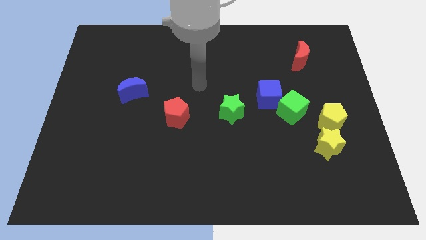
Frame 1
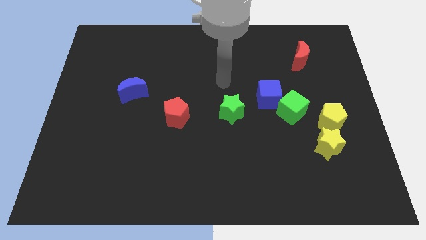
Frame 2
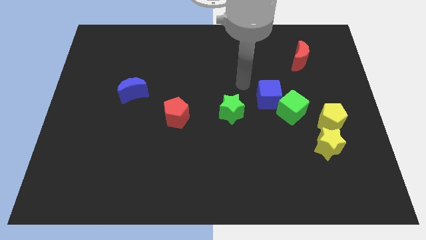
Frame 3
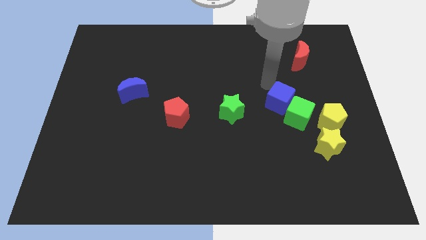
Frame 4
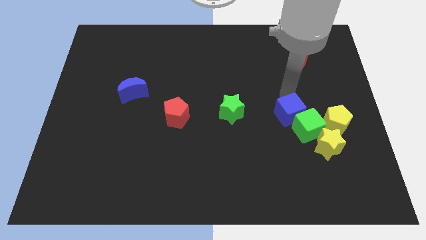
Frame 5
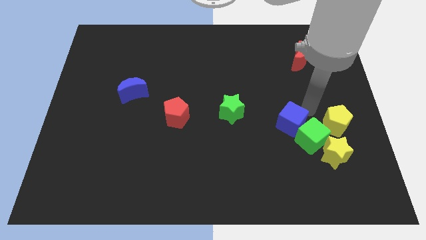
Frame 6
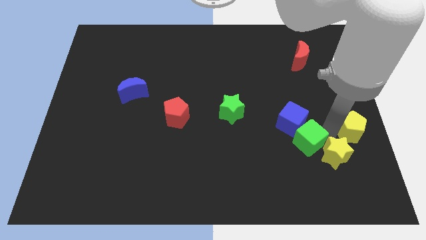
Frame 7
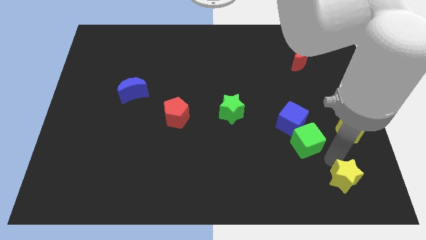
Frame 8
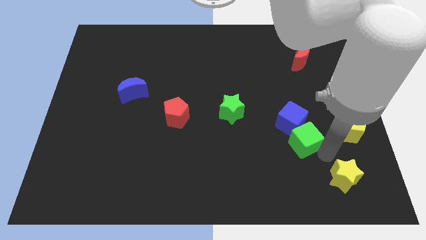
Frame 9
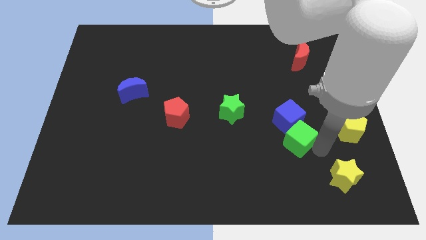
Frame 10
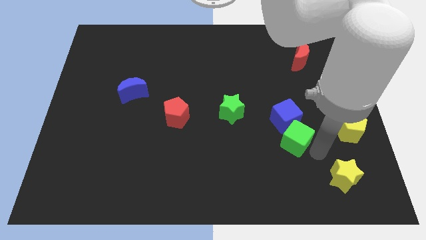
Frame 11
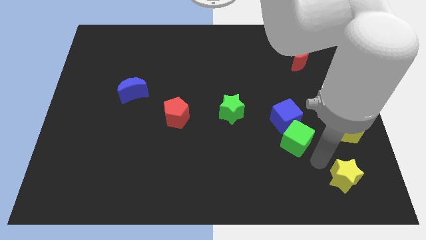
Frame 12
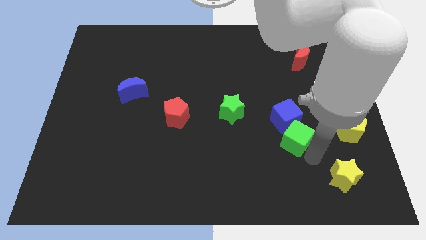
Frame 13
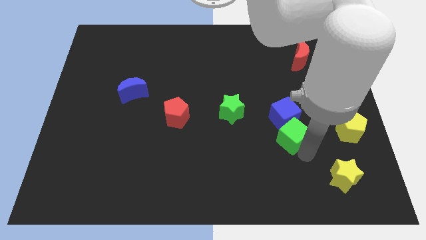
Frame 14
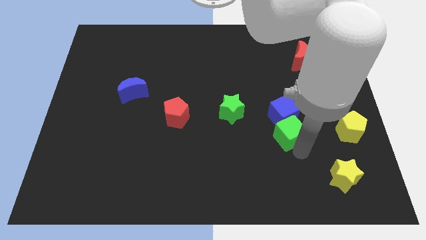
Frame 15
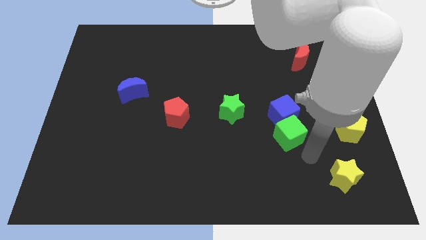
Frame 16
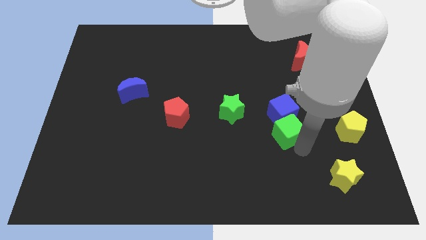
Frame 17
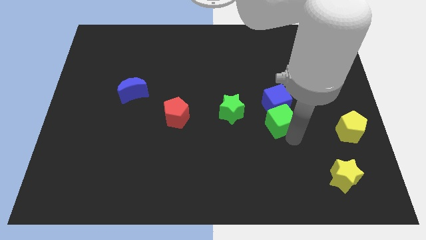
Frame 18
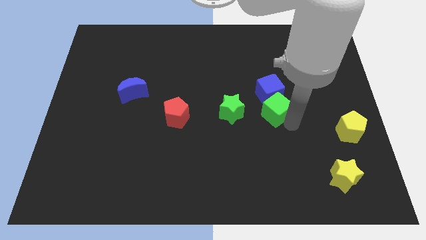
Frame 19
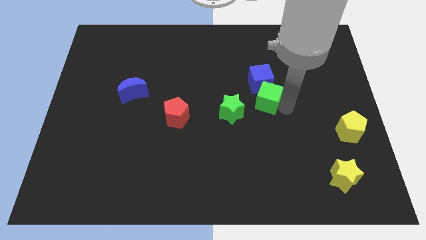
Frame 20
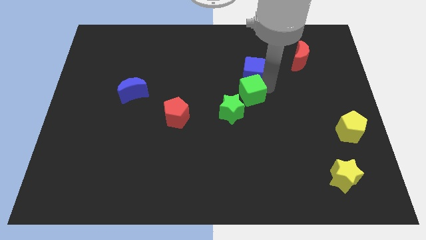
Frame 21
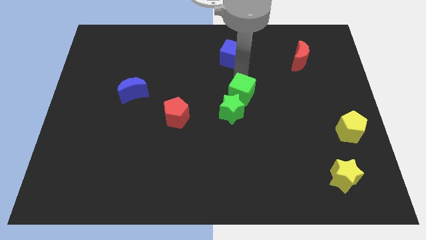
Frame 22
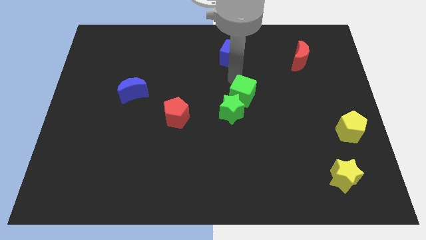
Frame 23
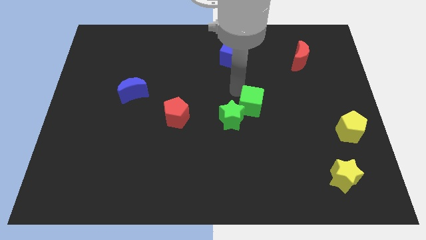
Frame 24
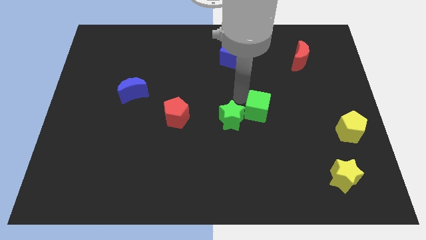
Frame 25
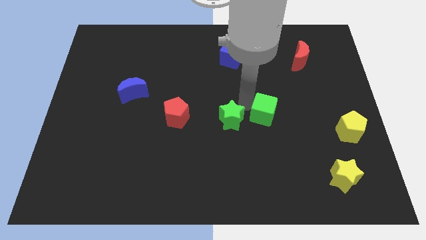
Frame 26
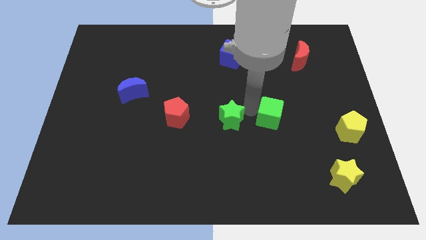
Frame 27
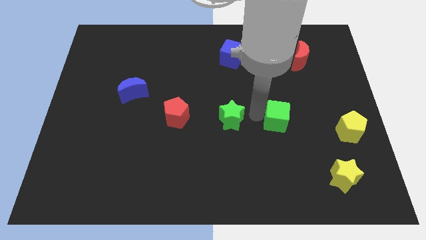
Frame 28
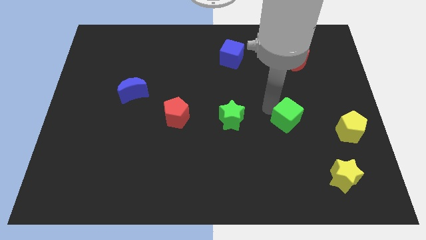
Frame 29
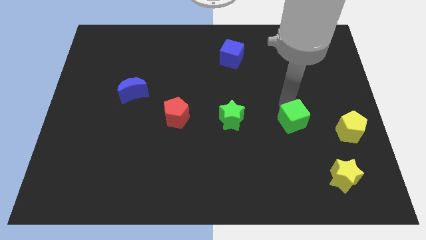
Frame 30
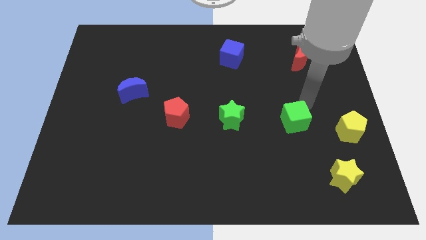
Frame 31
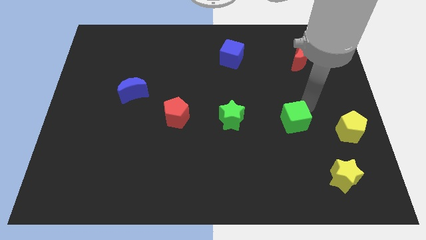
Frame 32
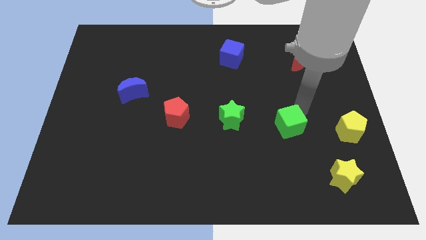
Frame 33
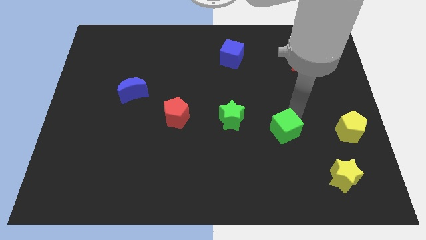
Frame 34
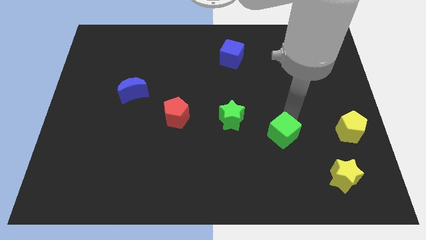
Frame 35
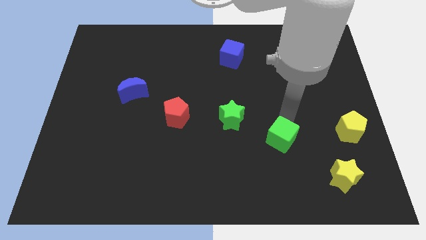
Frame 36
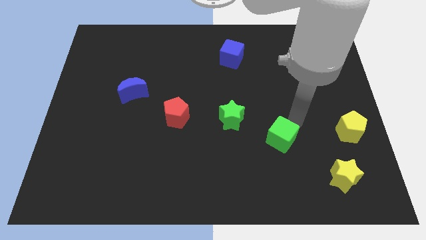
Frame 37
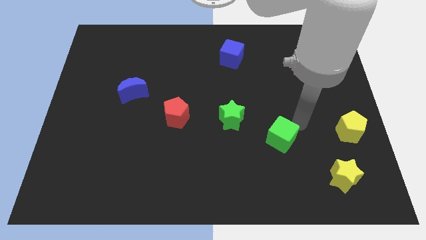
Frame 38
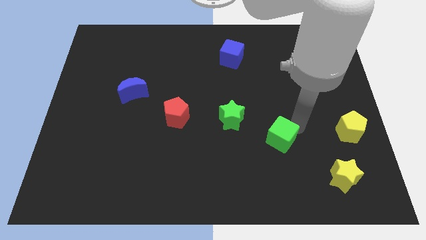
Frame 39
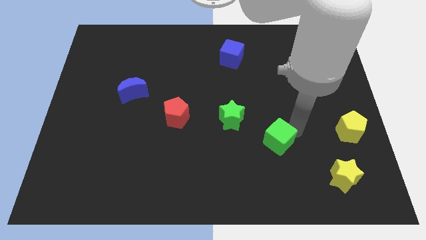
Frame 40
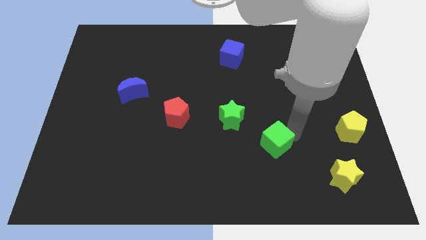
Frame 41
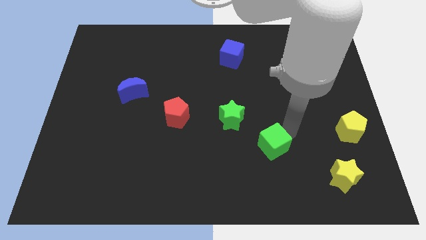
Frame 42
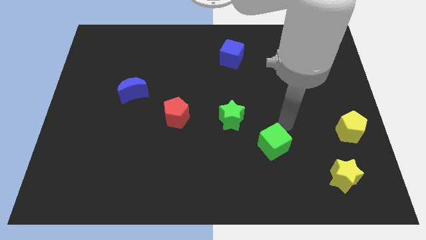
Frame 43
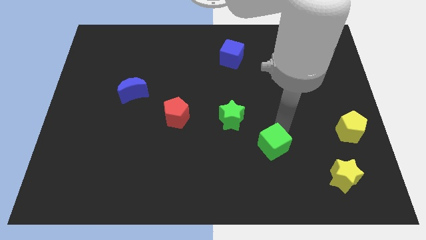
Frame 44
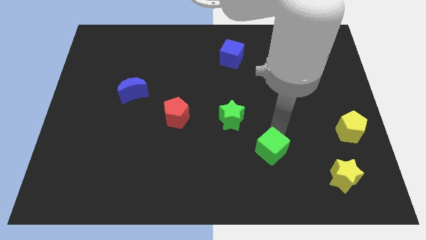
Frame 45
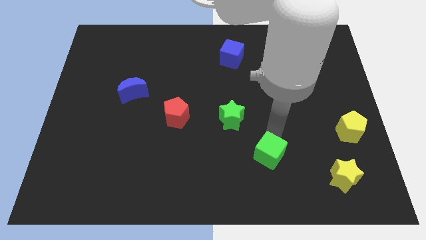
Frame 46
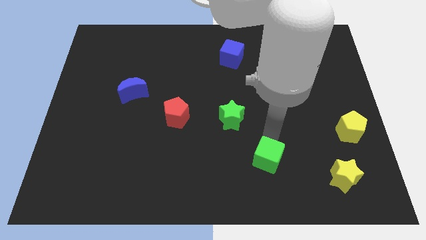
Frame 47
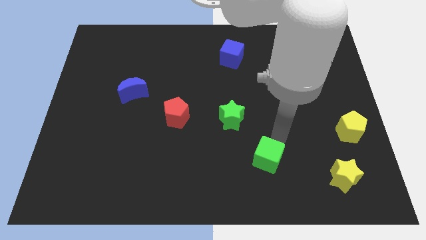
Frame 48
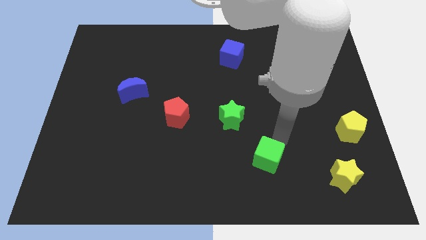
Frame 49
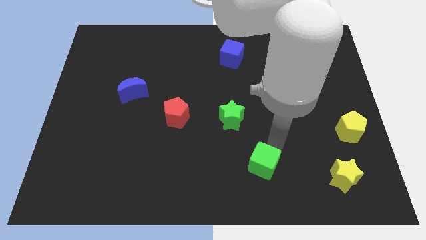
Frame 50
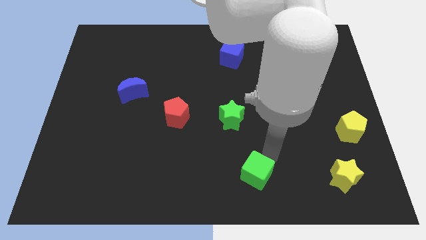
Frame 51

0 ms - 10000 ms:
put the green cube to the bottom

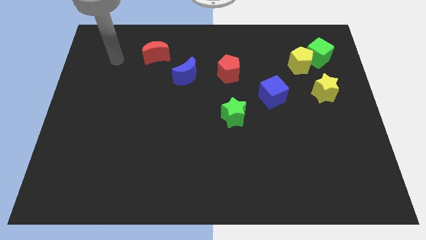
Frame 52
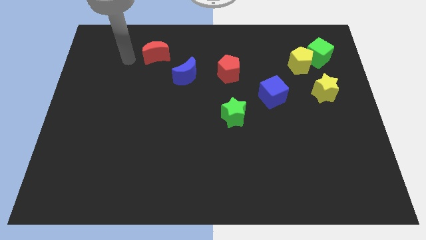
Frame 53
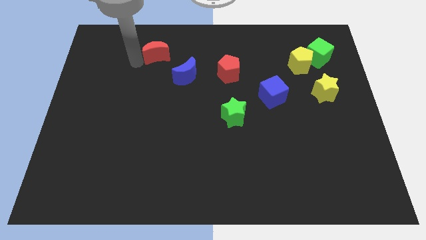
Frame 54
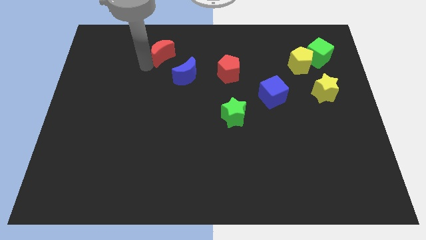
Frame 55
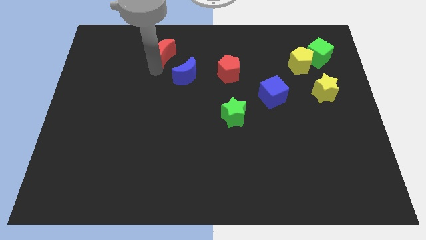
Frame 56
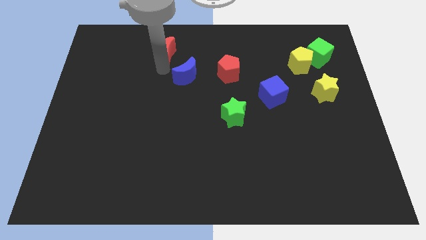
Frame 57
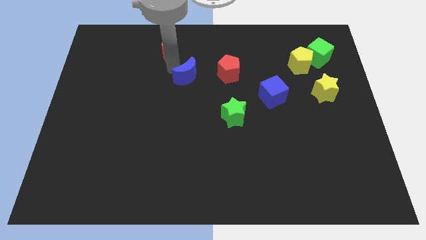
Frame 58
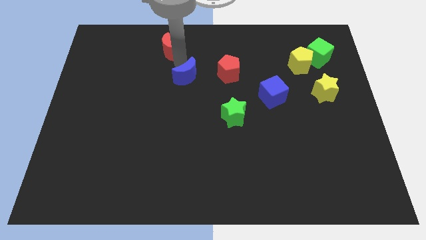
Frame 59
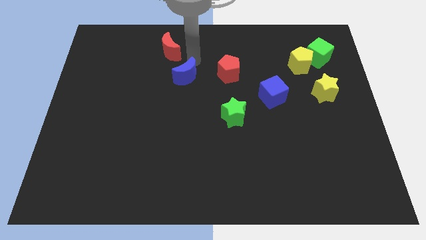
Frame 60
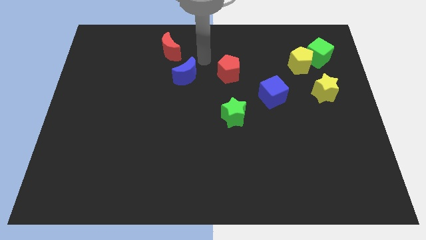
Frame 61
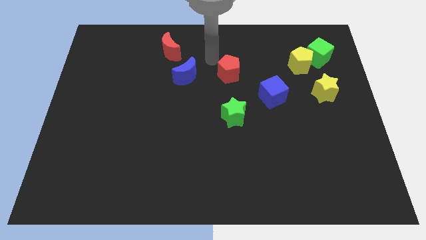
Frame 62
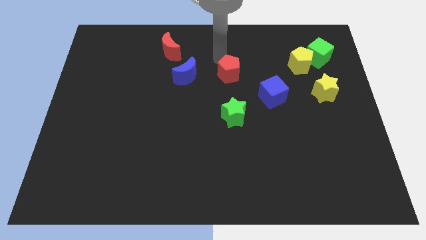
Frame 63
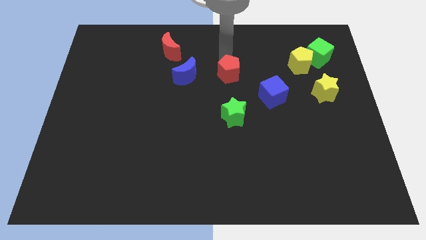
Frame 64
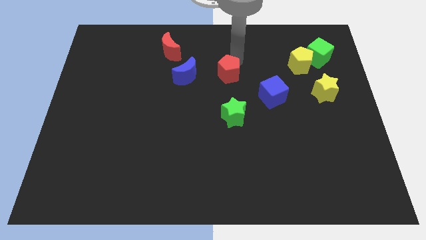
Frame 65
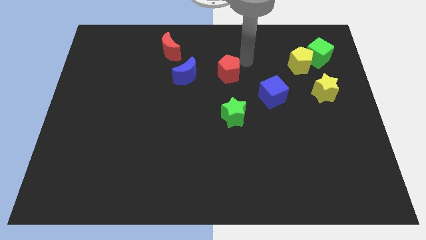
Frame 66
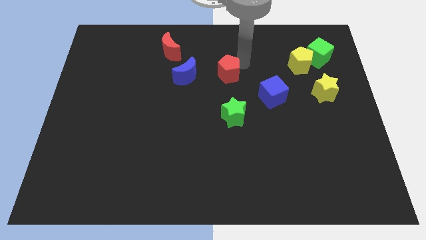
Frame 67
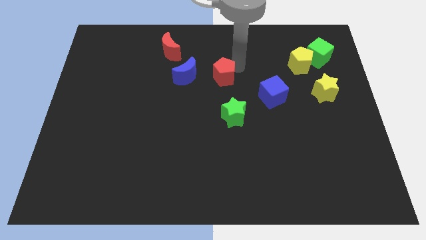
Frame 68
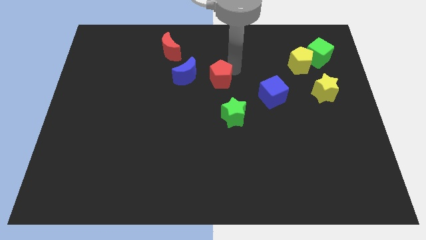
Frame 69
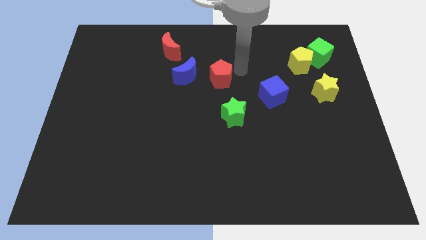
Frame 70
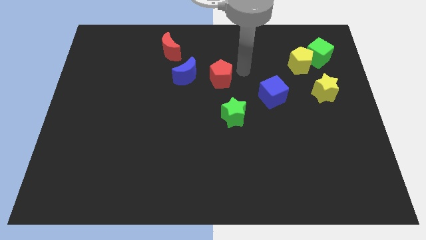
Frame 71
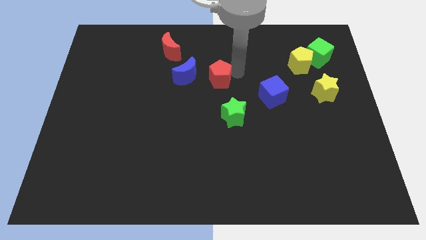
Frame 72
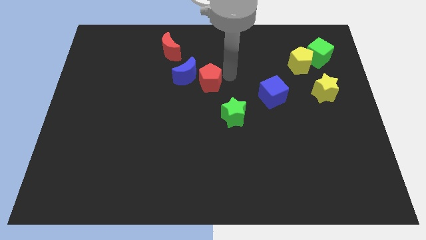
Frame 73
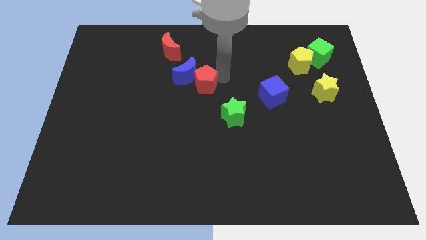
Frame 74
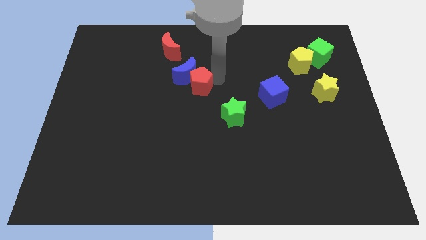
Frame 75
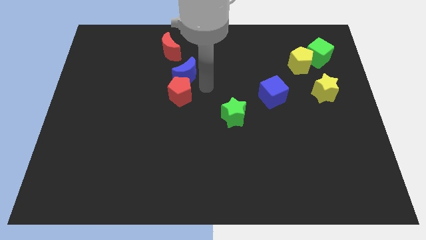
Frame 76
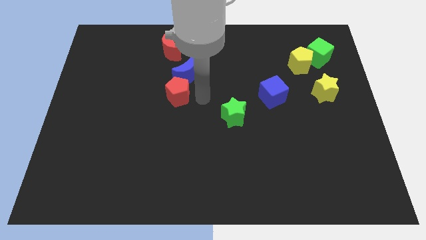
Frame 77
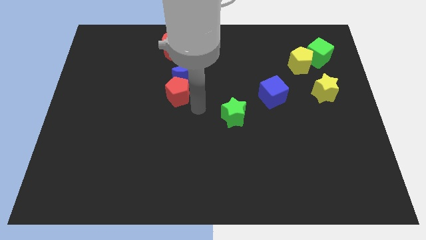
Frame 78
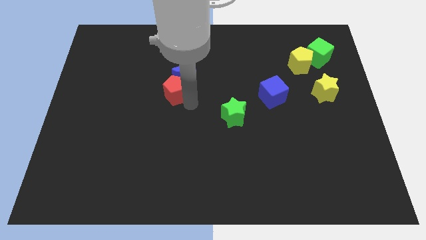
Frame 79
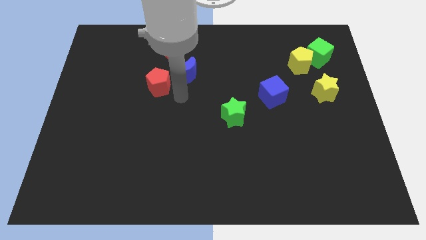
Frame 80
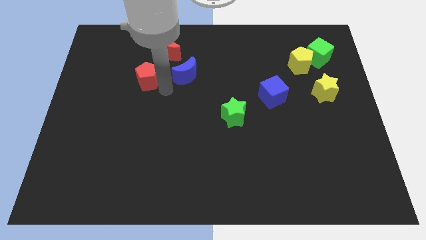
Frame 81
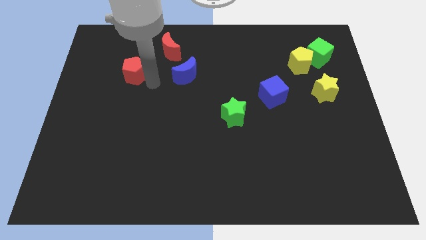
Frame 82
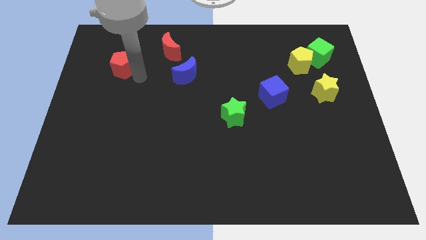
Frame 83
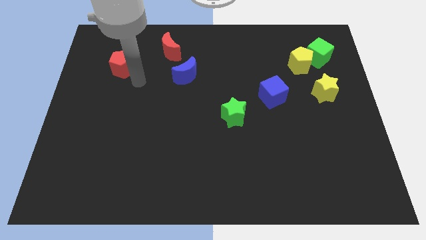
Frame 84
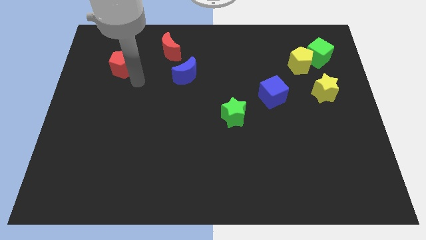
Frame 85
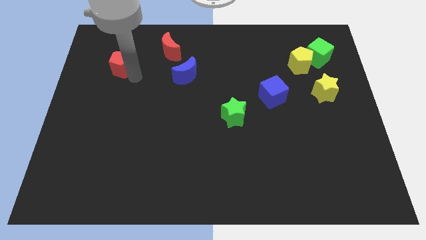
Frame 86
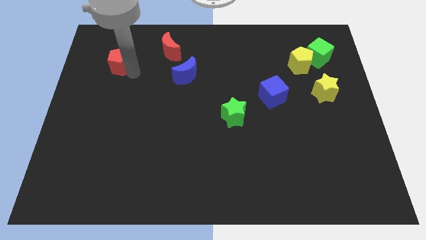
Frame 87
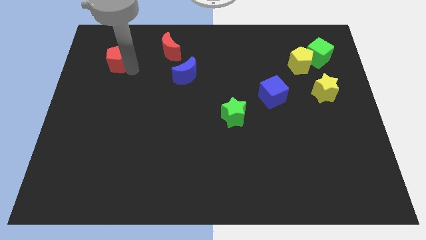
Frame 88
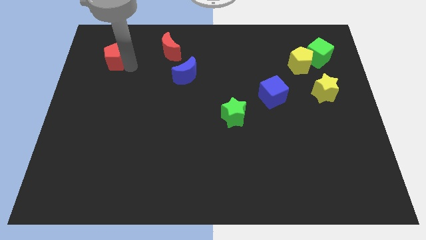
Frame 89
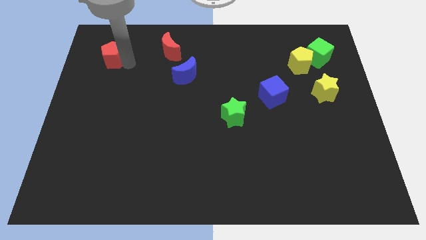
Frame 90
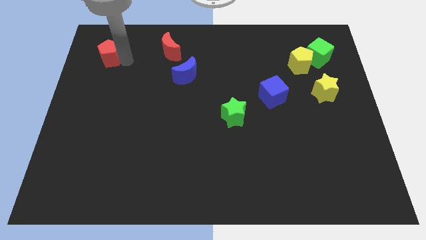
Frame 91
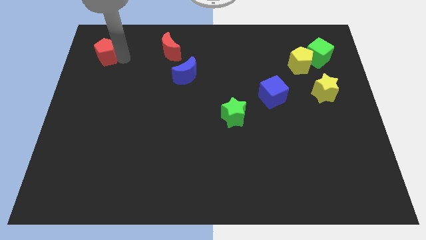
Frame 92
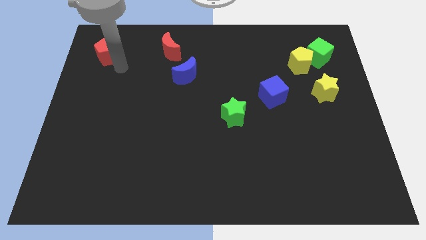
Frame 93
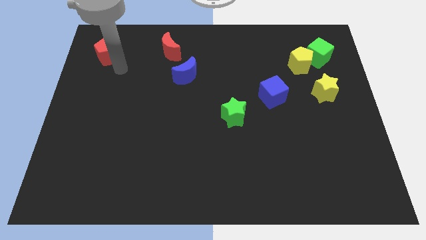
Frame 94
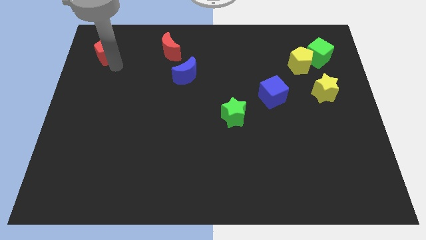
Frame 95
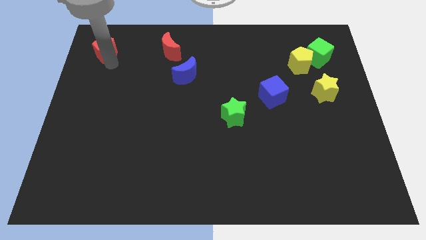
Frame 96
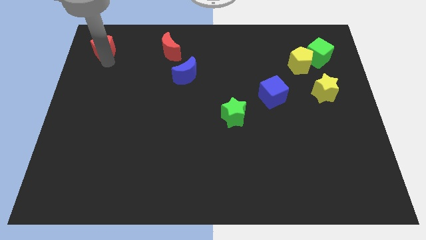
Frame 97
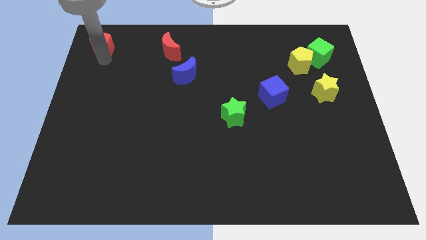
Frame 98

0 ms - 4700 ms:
slide the red pentagon to the top left
